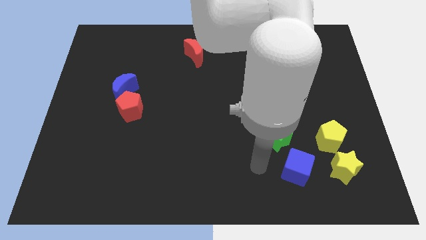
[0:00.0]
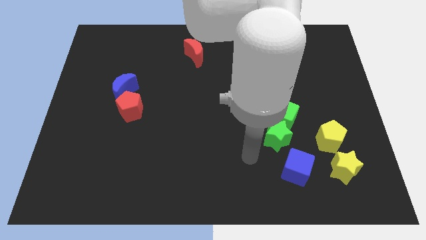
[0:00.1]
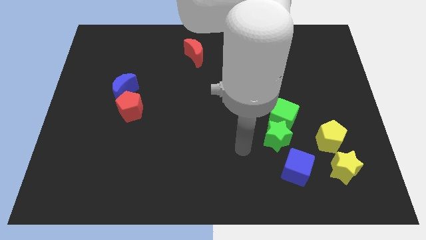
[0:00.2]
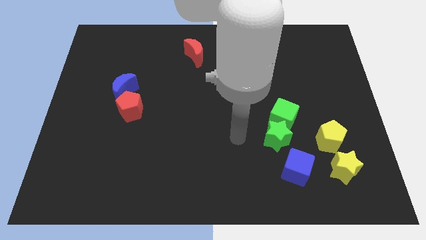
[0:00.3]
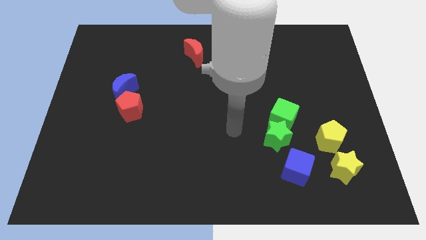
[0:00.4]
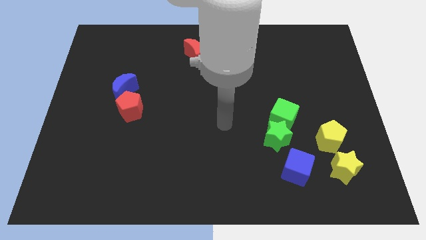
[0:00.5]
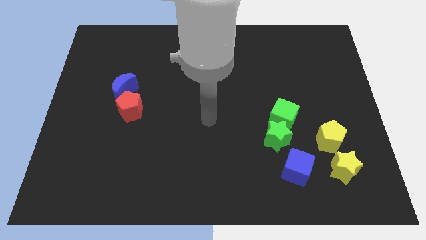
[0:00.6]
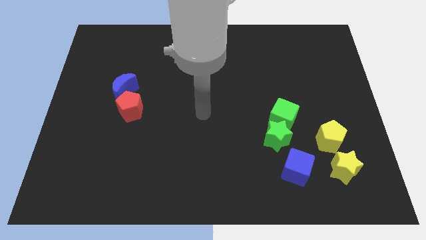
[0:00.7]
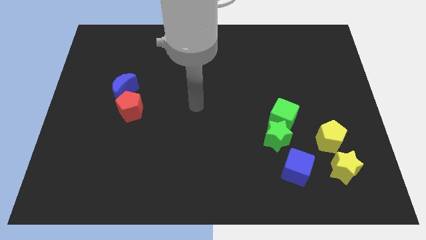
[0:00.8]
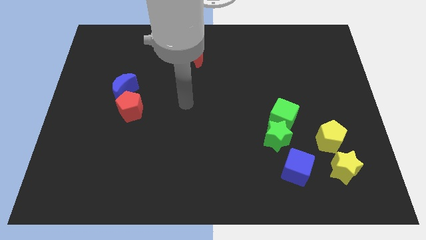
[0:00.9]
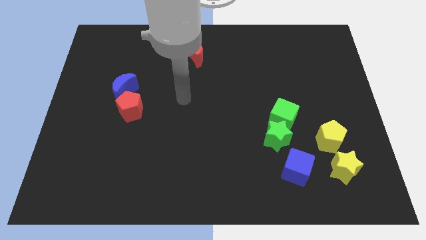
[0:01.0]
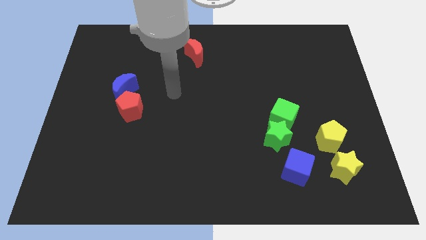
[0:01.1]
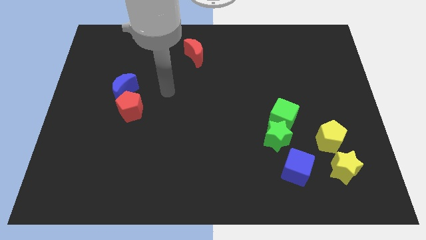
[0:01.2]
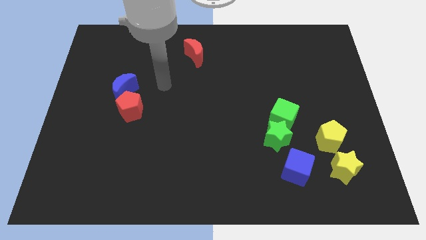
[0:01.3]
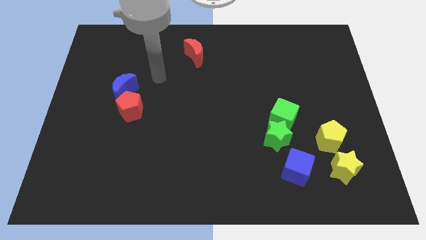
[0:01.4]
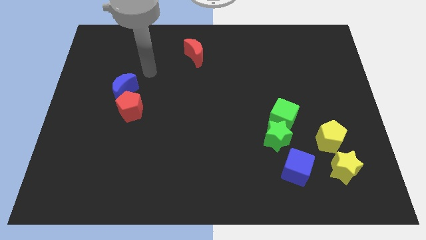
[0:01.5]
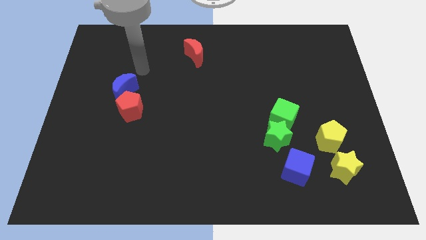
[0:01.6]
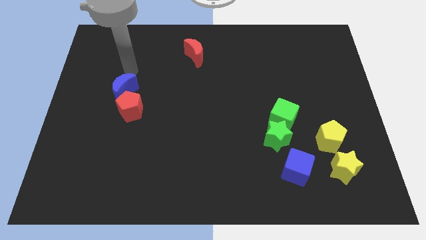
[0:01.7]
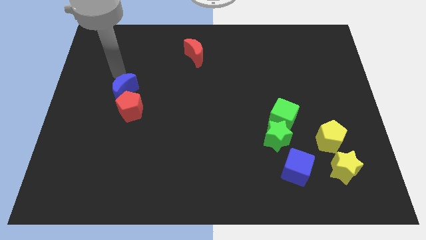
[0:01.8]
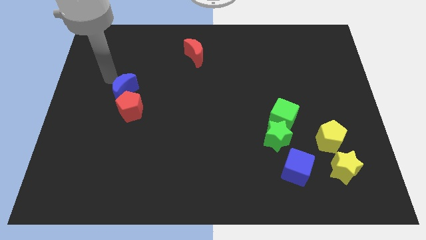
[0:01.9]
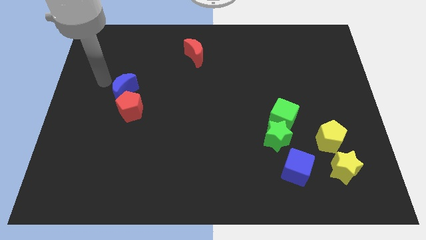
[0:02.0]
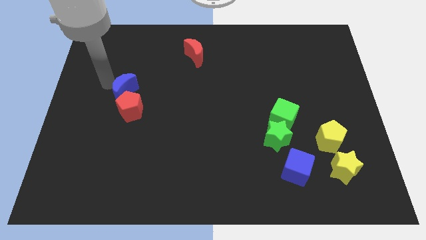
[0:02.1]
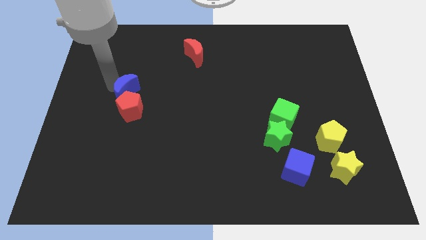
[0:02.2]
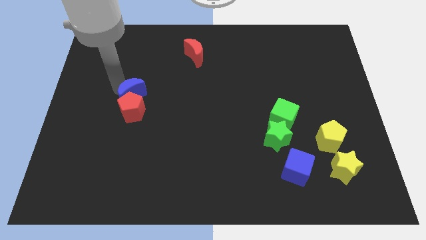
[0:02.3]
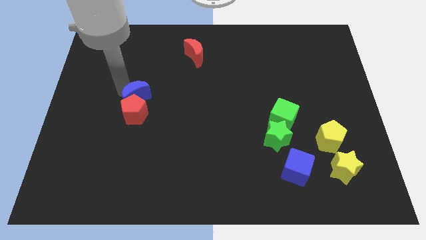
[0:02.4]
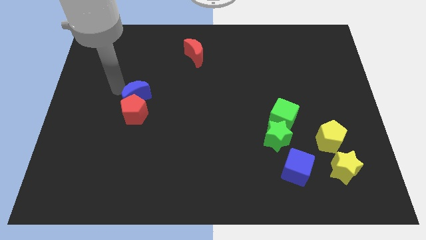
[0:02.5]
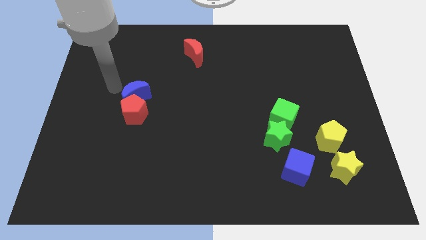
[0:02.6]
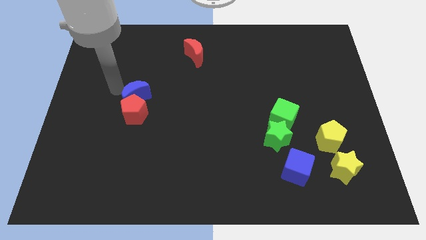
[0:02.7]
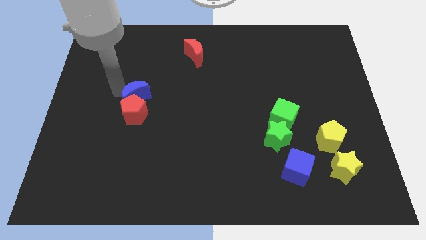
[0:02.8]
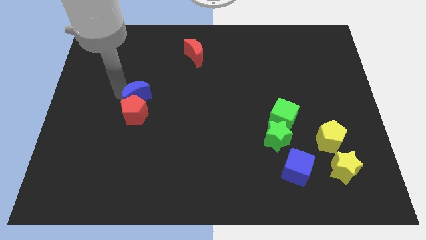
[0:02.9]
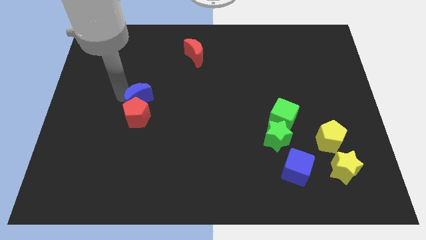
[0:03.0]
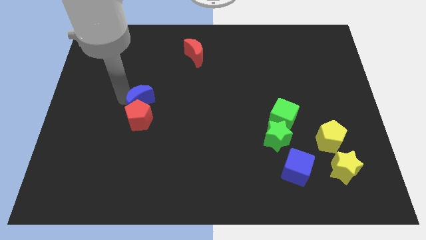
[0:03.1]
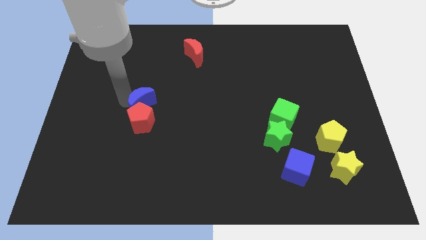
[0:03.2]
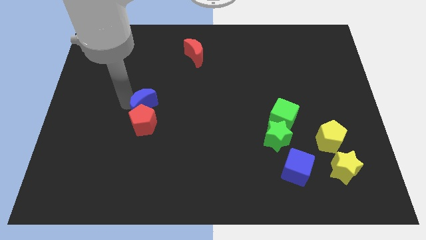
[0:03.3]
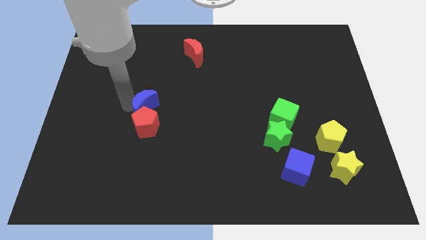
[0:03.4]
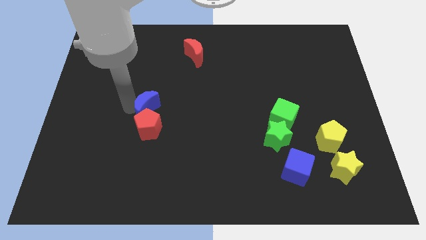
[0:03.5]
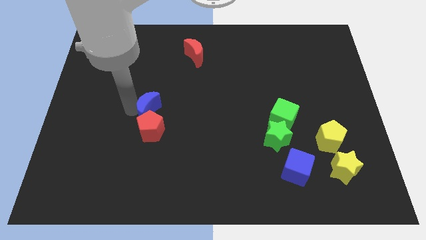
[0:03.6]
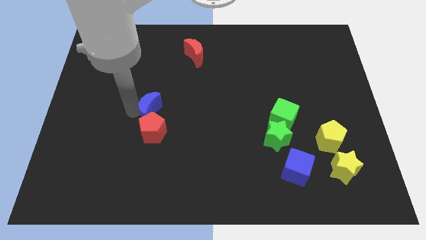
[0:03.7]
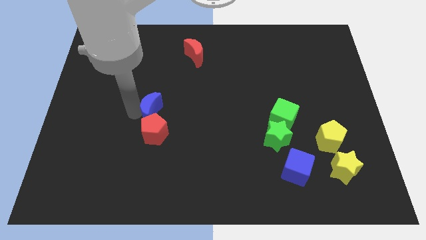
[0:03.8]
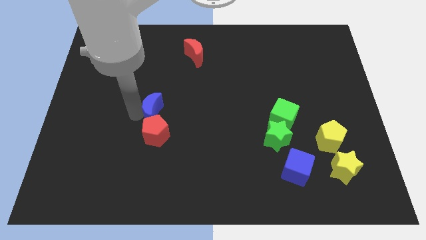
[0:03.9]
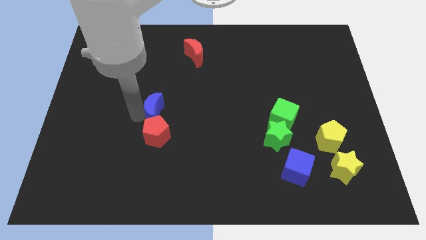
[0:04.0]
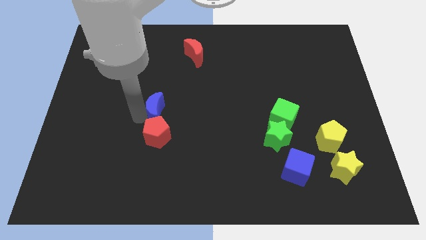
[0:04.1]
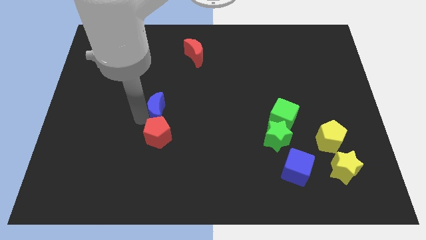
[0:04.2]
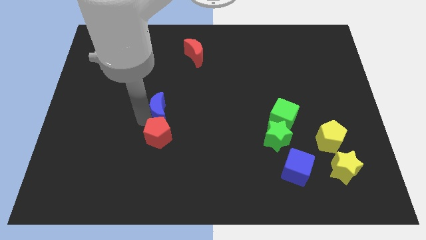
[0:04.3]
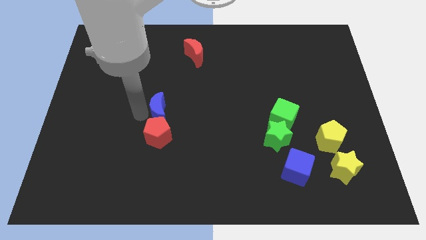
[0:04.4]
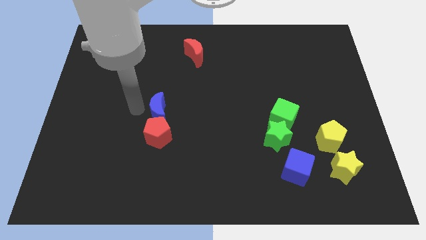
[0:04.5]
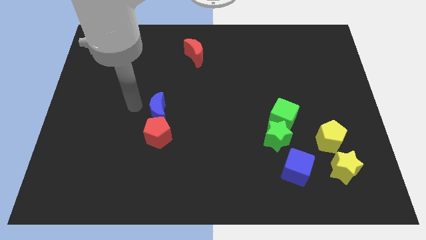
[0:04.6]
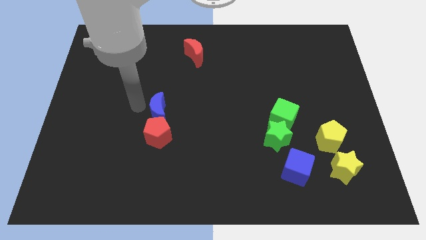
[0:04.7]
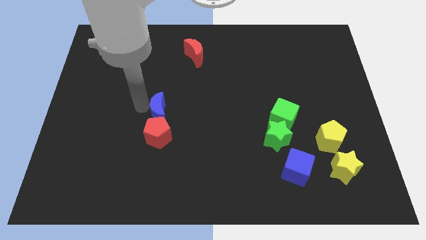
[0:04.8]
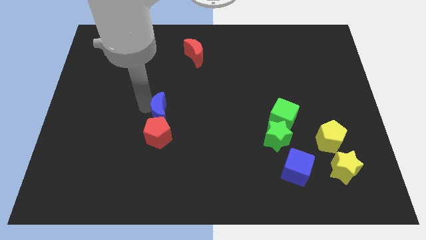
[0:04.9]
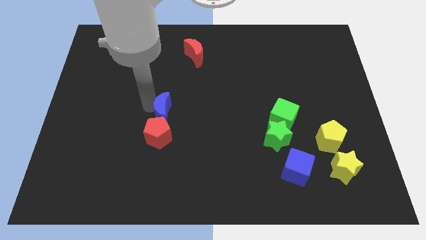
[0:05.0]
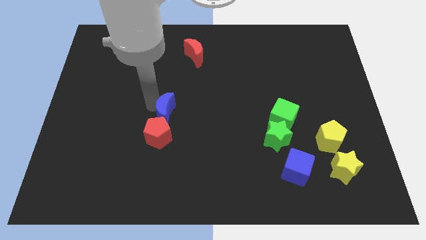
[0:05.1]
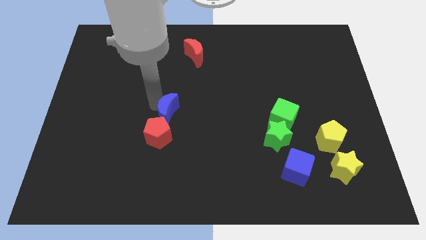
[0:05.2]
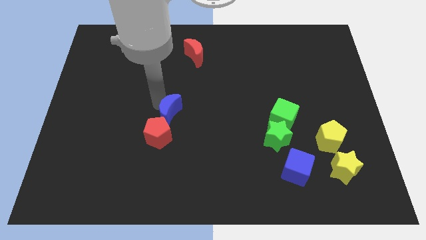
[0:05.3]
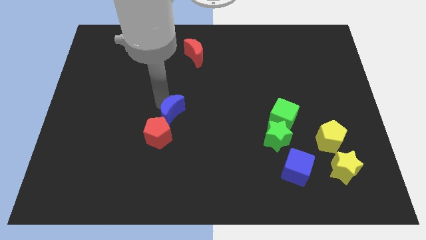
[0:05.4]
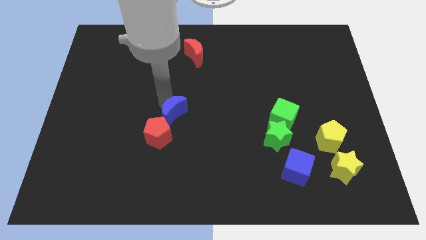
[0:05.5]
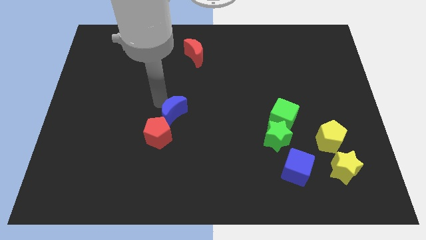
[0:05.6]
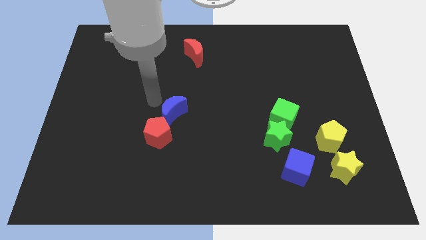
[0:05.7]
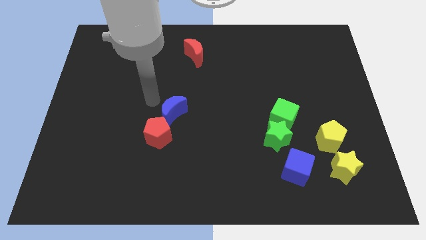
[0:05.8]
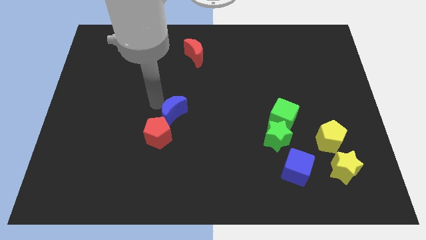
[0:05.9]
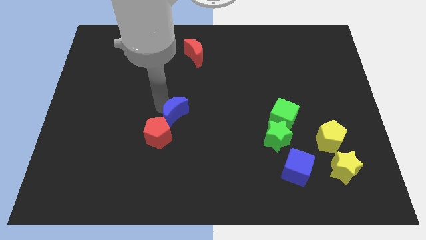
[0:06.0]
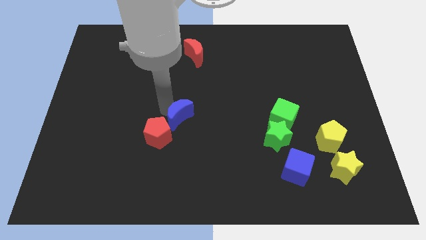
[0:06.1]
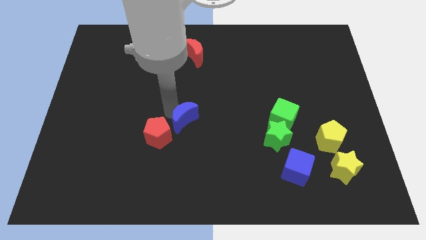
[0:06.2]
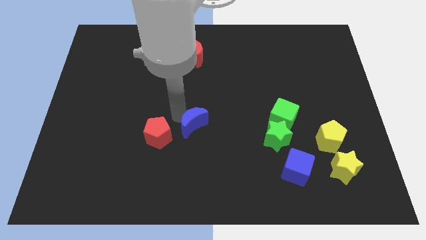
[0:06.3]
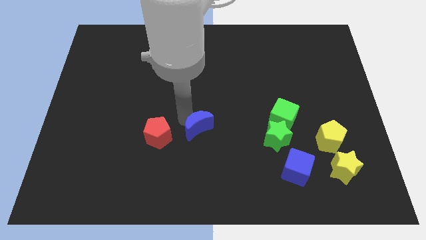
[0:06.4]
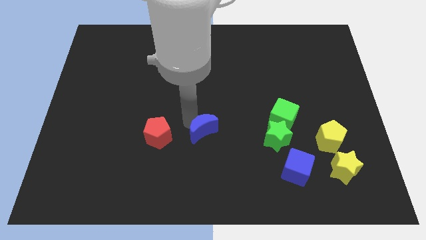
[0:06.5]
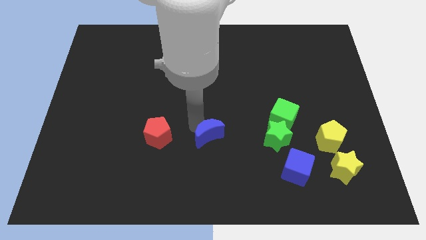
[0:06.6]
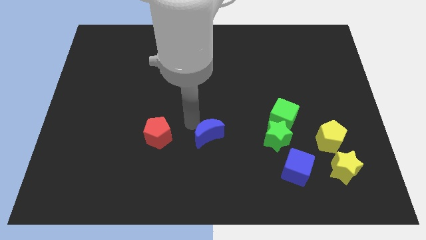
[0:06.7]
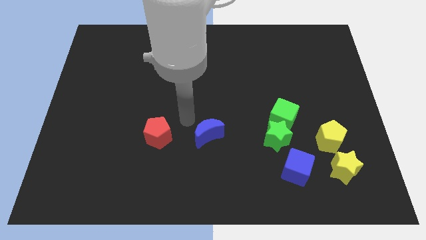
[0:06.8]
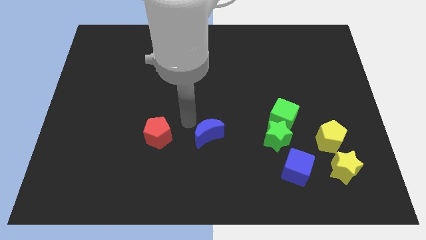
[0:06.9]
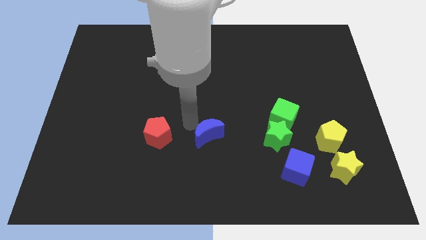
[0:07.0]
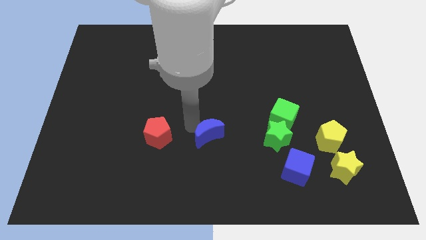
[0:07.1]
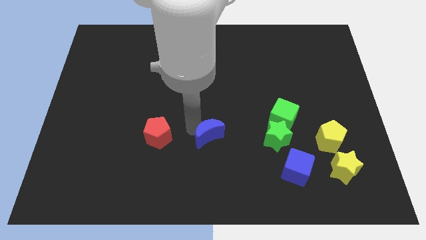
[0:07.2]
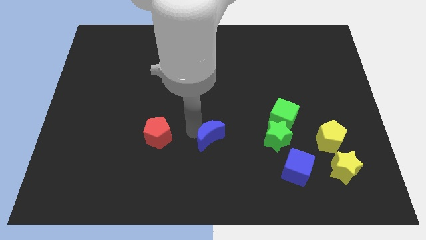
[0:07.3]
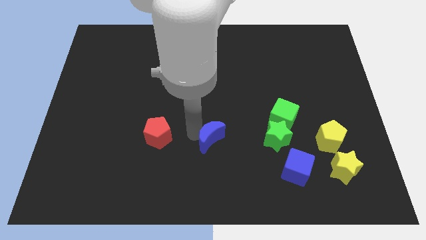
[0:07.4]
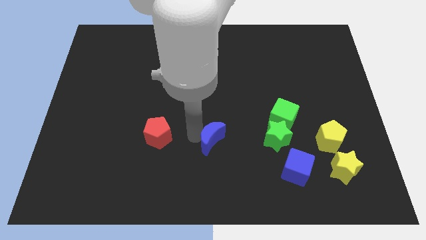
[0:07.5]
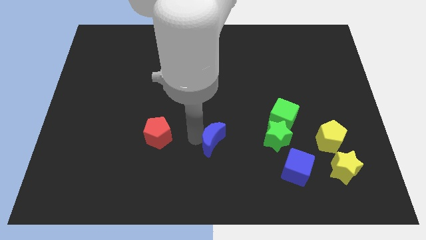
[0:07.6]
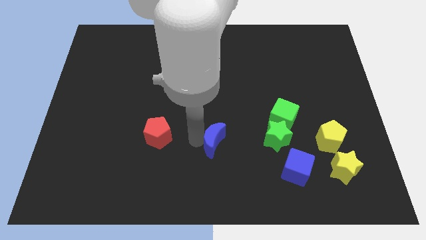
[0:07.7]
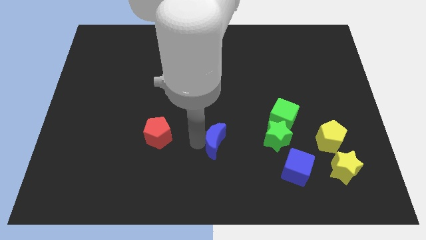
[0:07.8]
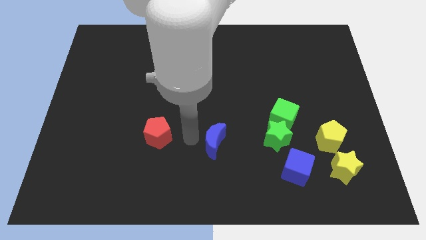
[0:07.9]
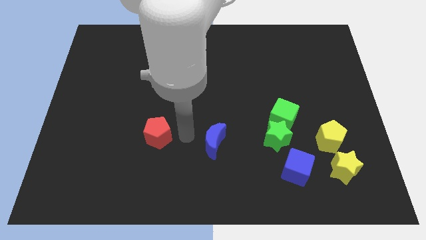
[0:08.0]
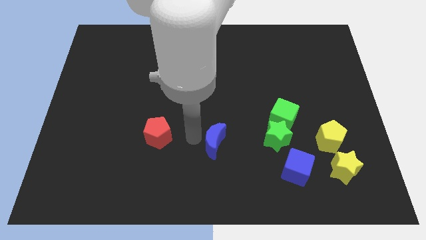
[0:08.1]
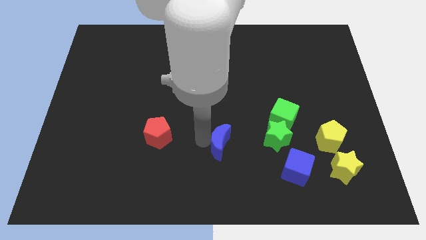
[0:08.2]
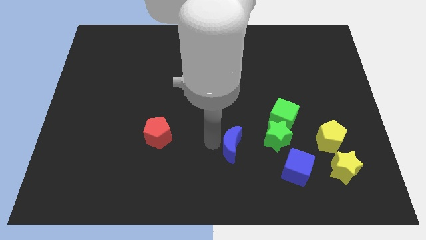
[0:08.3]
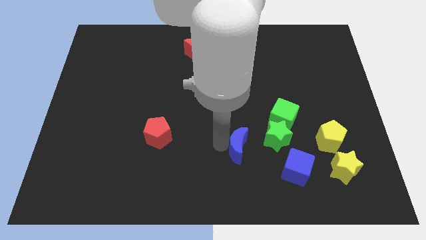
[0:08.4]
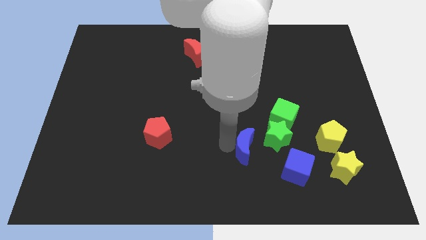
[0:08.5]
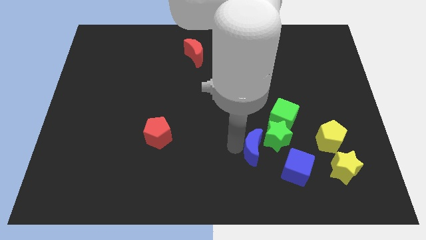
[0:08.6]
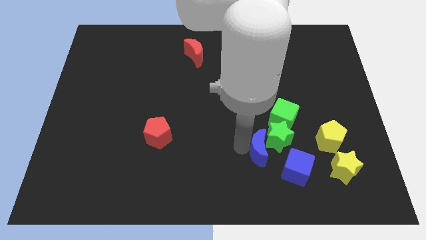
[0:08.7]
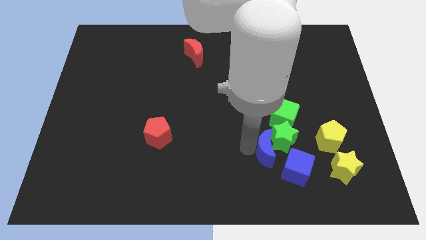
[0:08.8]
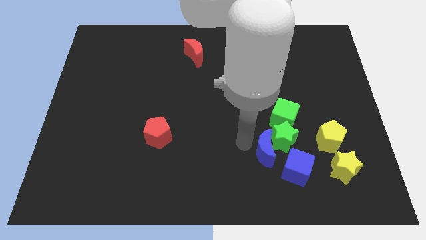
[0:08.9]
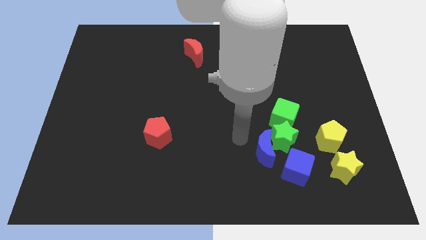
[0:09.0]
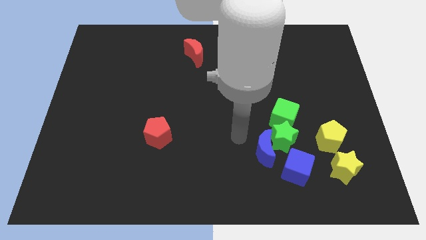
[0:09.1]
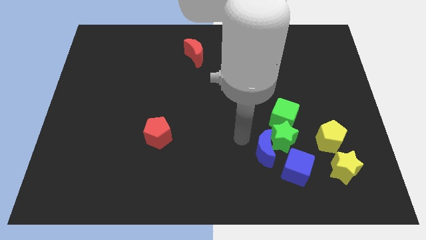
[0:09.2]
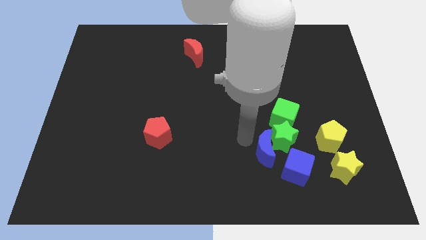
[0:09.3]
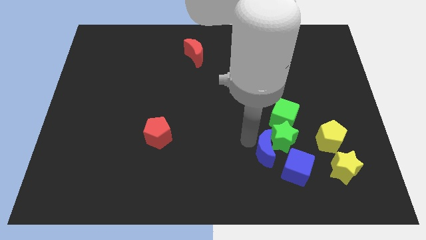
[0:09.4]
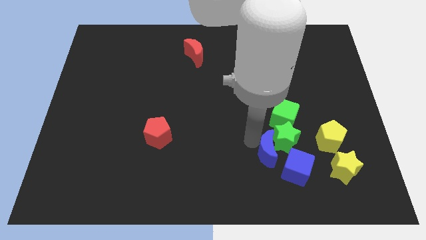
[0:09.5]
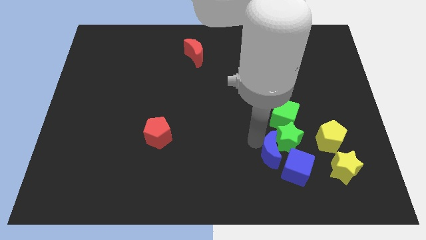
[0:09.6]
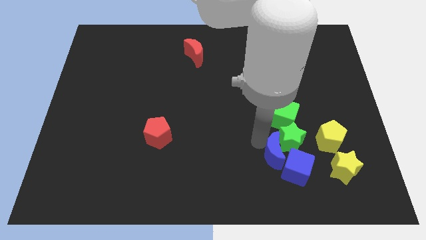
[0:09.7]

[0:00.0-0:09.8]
put the blue moon close to the blue cube
